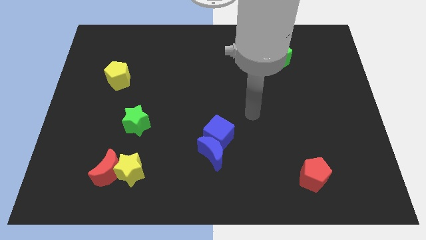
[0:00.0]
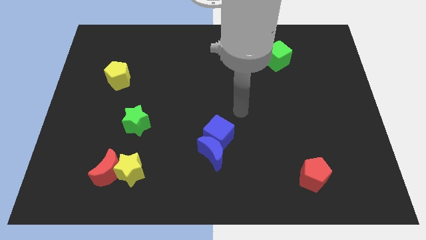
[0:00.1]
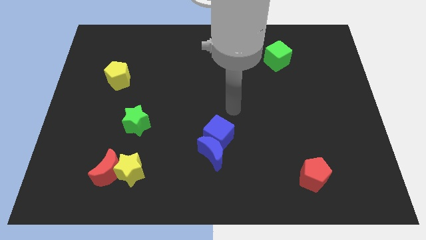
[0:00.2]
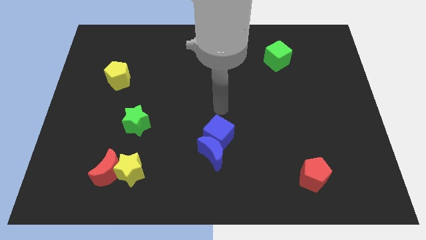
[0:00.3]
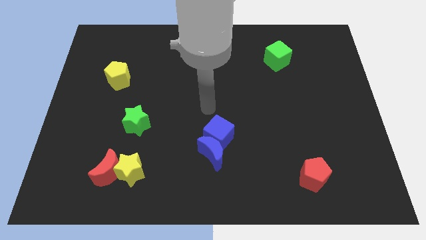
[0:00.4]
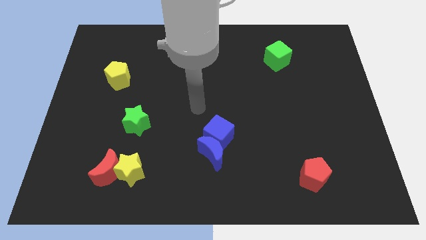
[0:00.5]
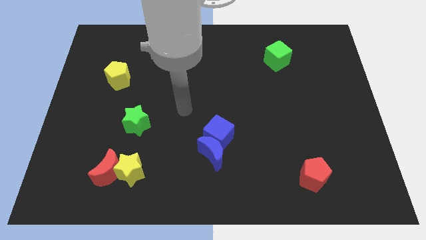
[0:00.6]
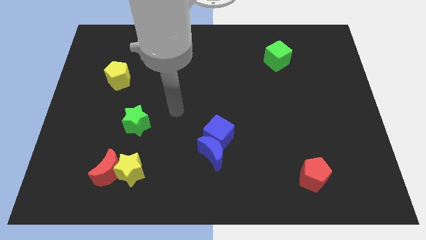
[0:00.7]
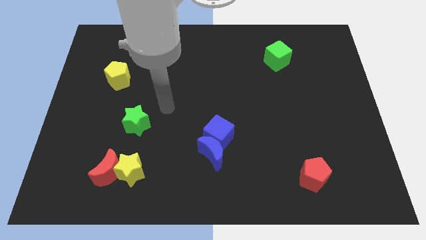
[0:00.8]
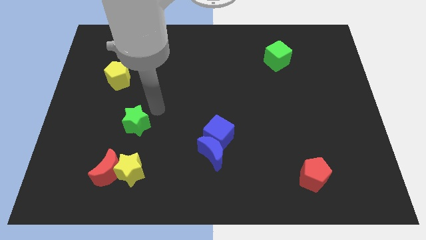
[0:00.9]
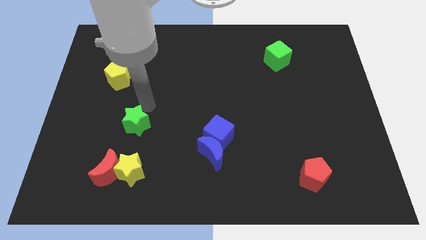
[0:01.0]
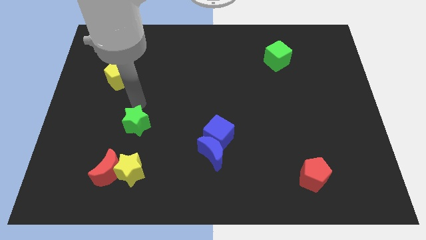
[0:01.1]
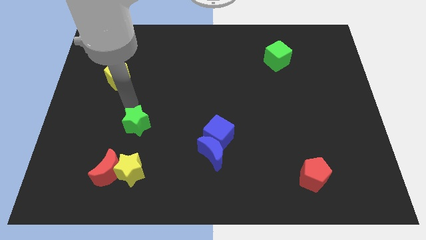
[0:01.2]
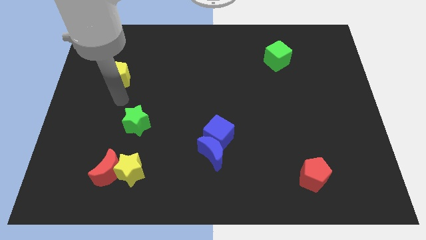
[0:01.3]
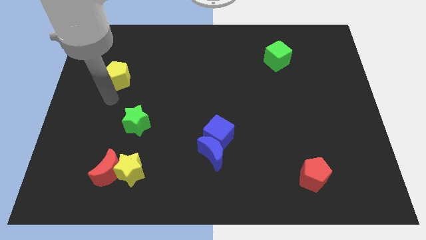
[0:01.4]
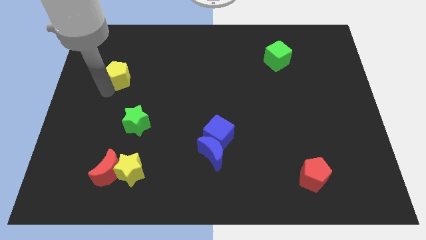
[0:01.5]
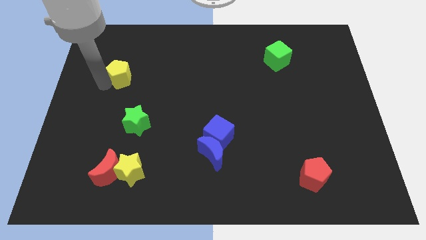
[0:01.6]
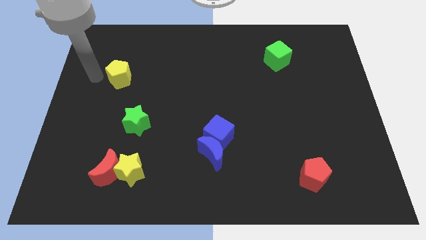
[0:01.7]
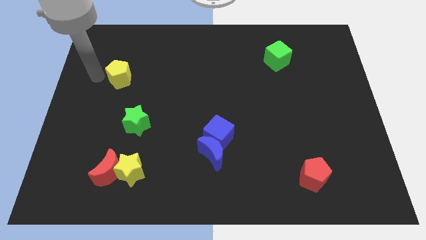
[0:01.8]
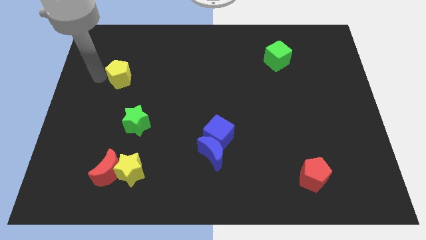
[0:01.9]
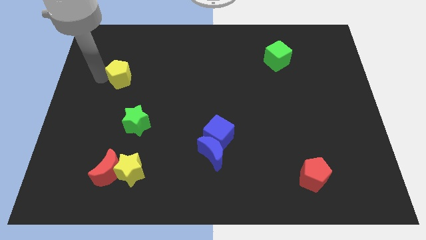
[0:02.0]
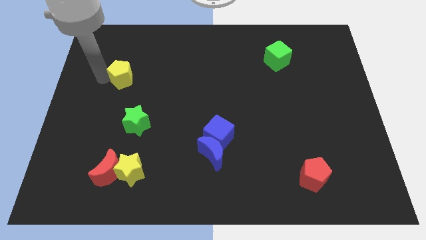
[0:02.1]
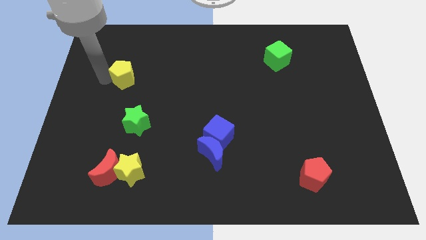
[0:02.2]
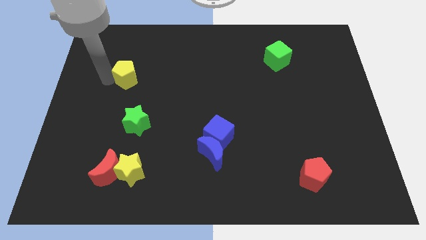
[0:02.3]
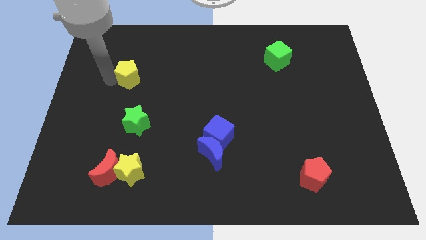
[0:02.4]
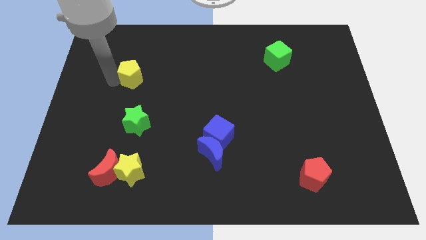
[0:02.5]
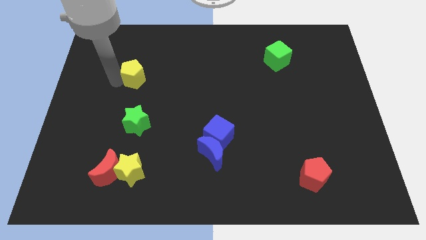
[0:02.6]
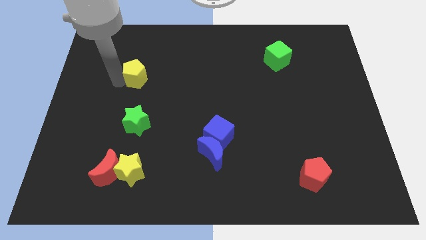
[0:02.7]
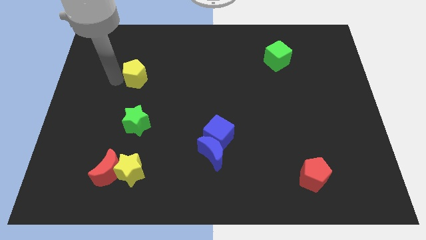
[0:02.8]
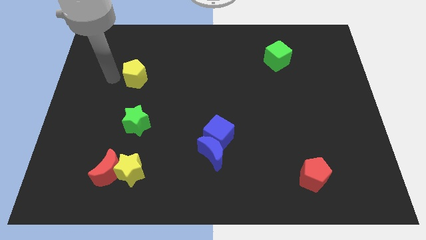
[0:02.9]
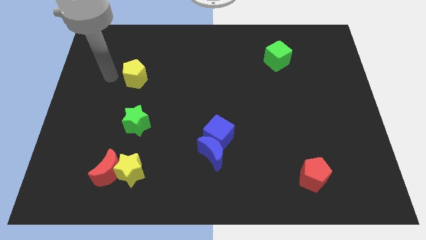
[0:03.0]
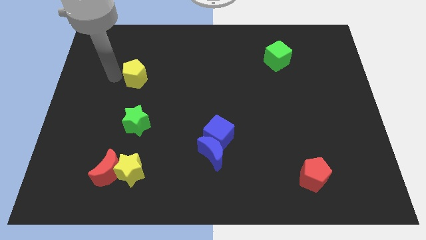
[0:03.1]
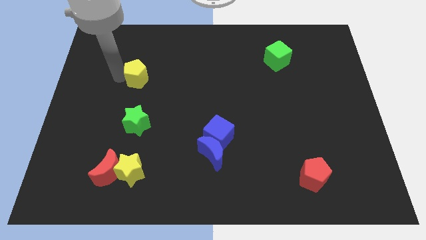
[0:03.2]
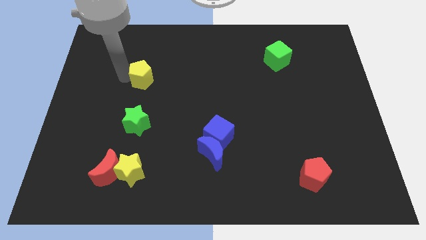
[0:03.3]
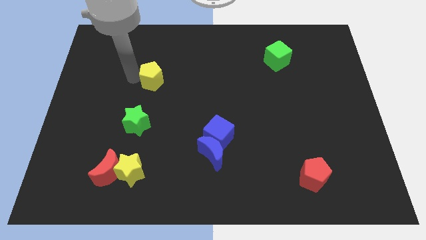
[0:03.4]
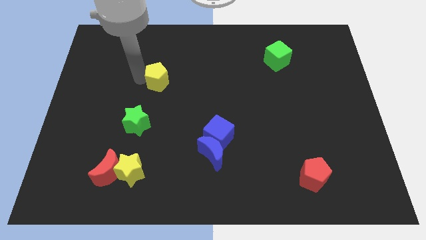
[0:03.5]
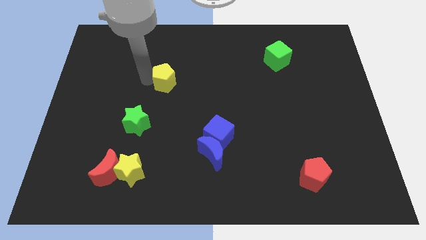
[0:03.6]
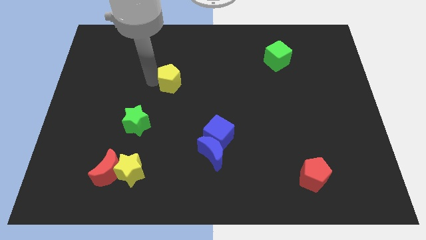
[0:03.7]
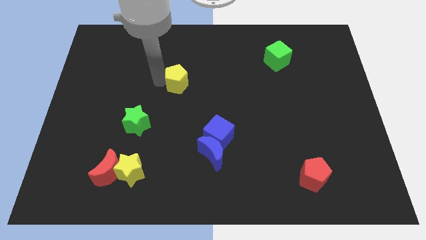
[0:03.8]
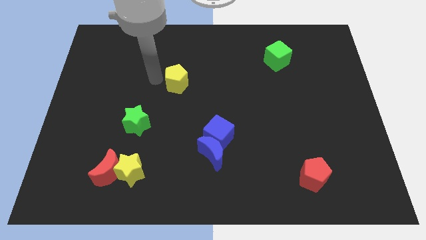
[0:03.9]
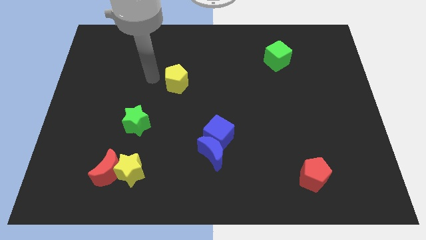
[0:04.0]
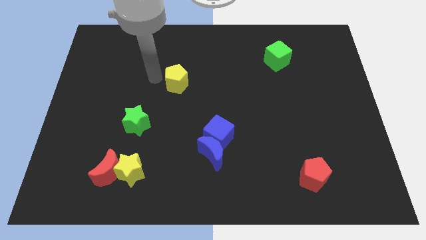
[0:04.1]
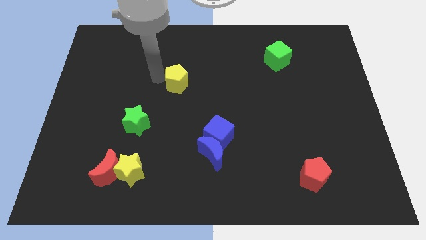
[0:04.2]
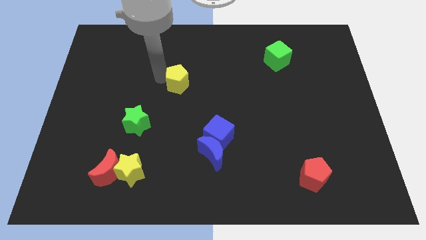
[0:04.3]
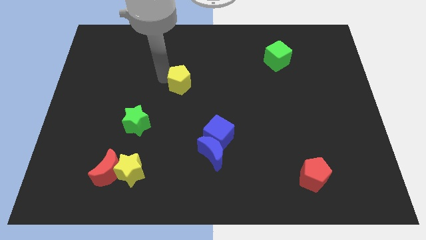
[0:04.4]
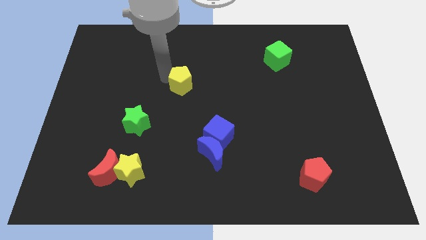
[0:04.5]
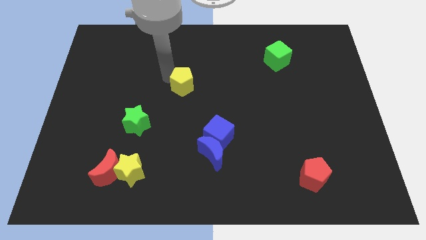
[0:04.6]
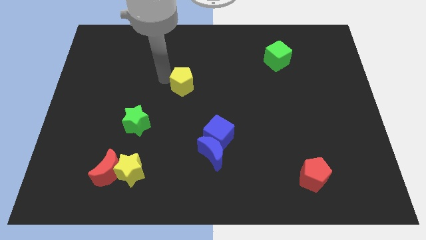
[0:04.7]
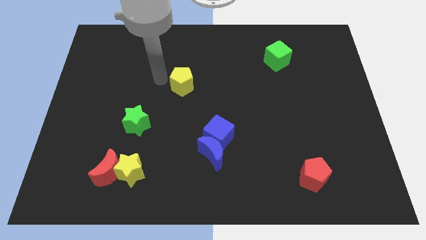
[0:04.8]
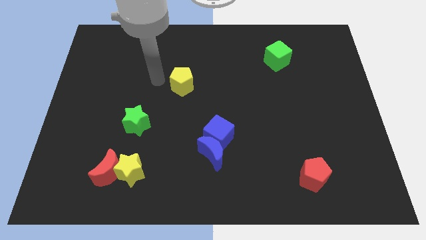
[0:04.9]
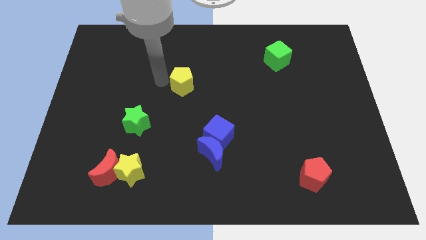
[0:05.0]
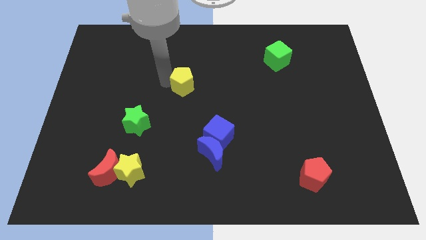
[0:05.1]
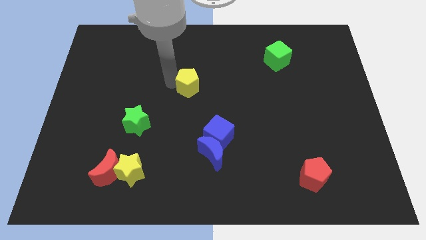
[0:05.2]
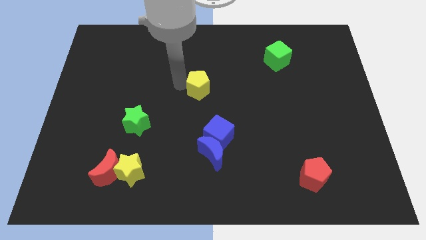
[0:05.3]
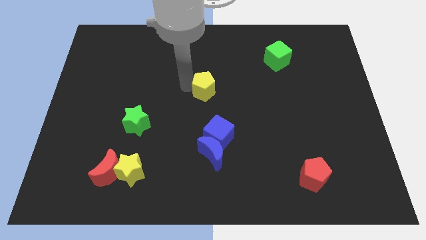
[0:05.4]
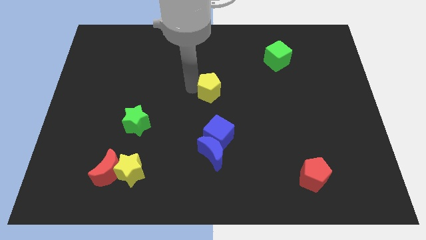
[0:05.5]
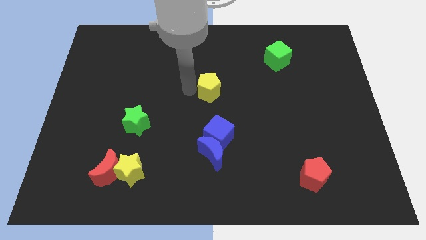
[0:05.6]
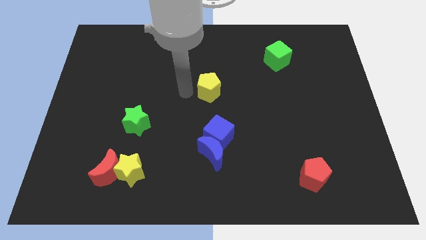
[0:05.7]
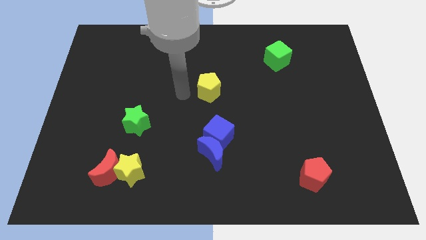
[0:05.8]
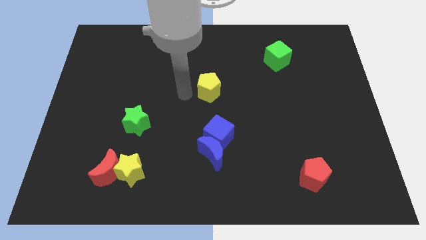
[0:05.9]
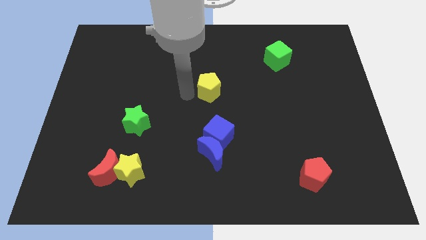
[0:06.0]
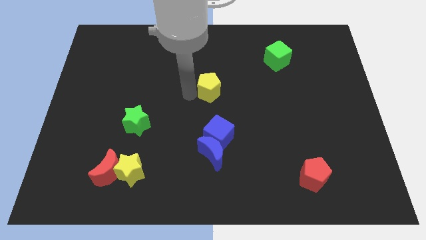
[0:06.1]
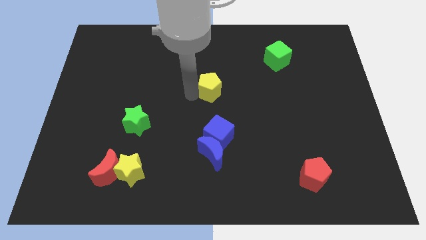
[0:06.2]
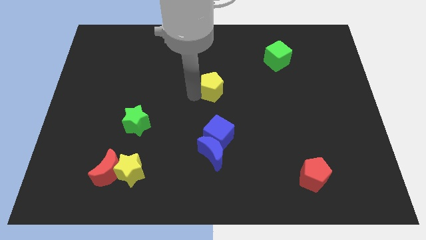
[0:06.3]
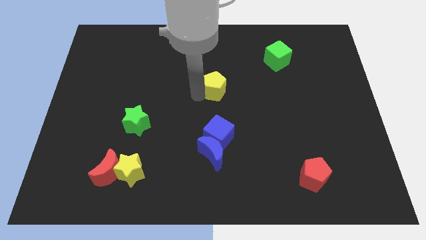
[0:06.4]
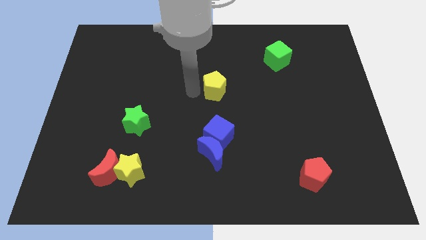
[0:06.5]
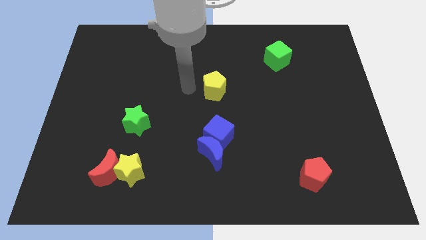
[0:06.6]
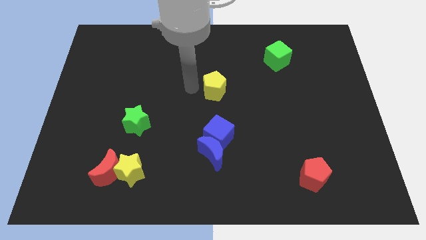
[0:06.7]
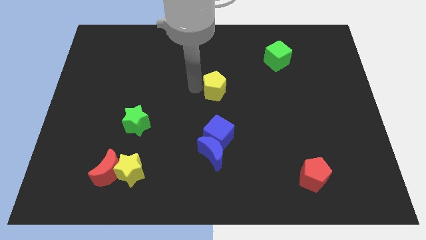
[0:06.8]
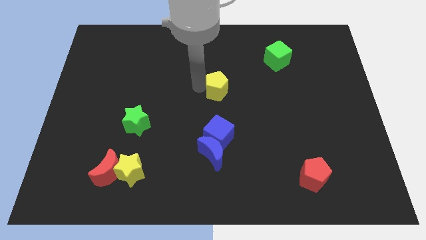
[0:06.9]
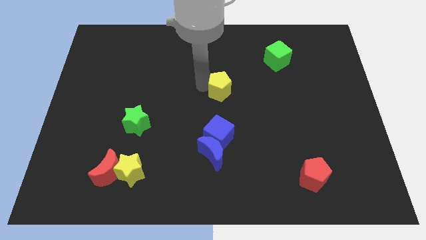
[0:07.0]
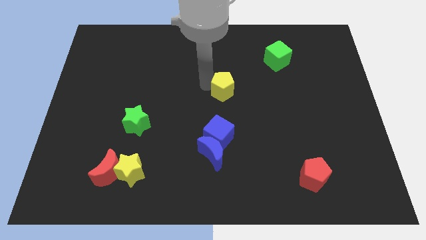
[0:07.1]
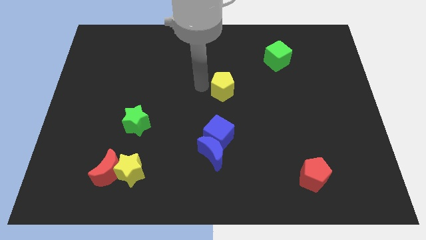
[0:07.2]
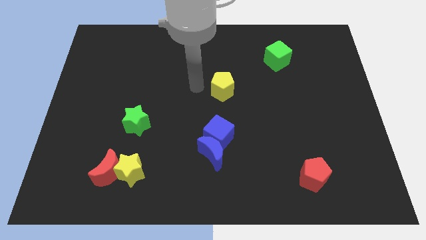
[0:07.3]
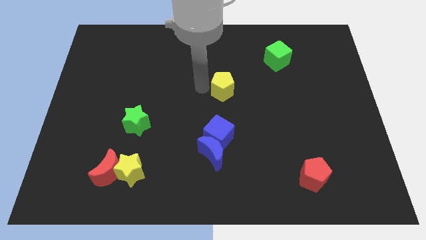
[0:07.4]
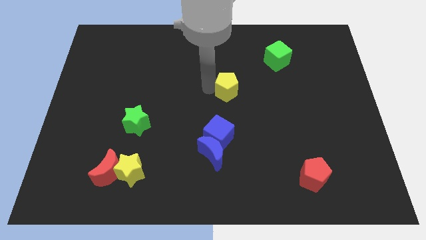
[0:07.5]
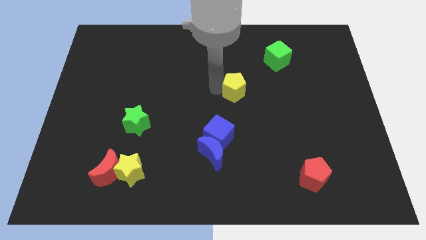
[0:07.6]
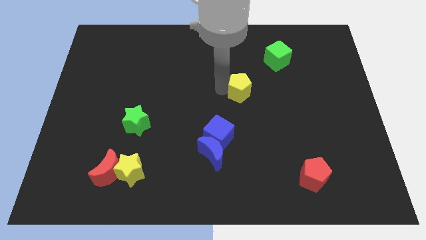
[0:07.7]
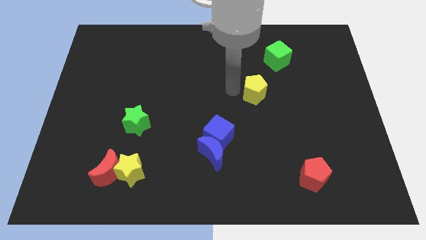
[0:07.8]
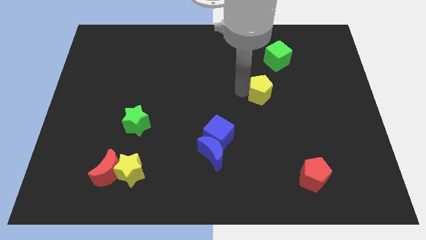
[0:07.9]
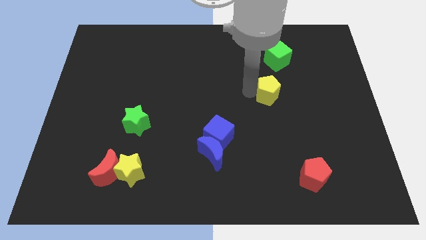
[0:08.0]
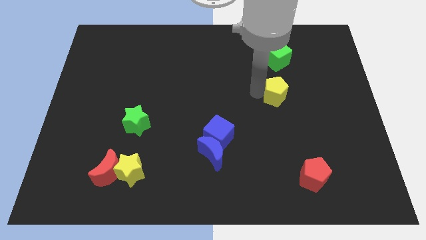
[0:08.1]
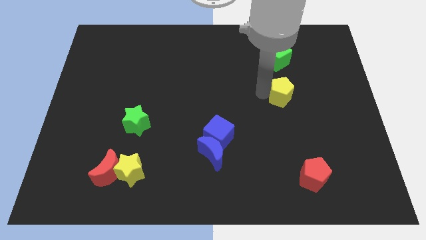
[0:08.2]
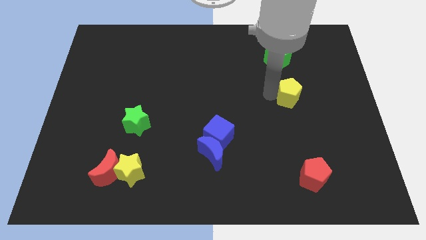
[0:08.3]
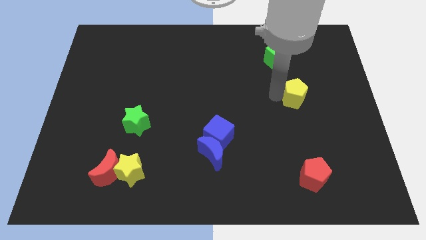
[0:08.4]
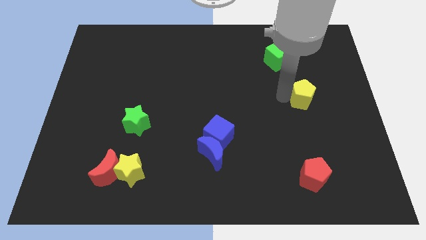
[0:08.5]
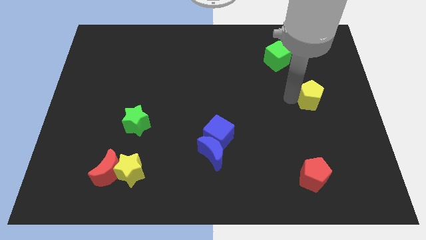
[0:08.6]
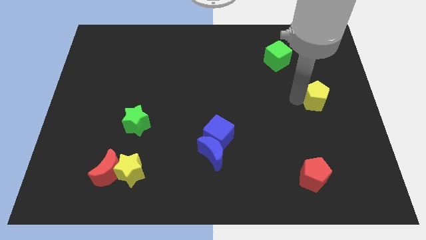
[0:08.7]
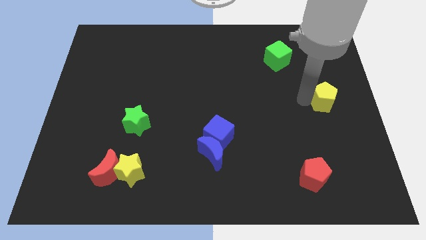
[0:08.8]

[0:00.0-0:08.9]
put the yellow pentagon to the right side
